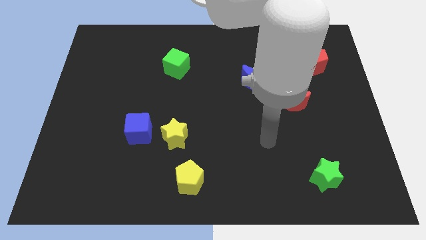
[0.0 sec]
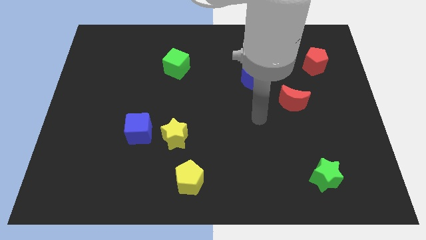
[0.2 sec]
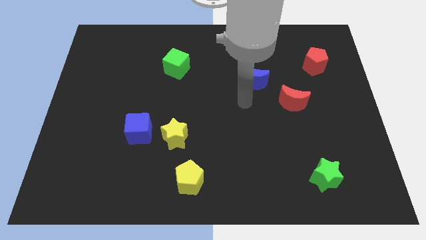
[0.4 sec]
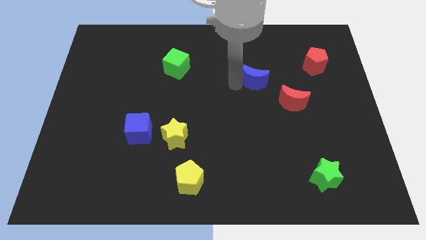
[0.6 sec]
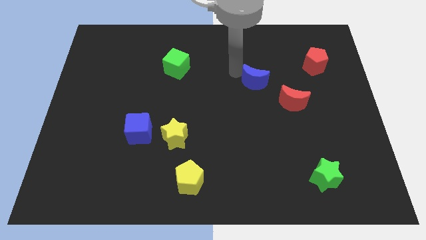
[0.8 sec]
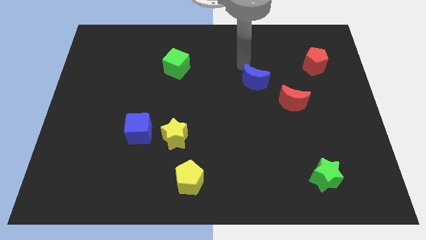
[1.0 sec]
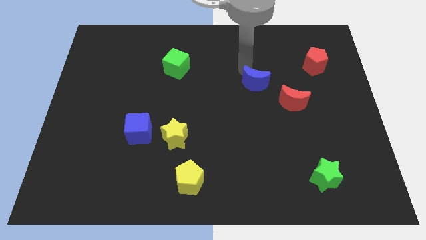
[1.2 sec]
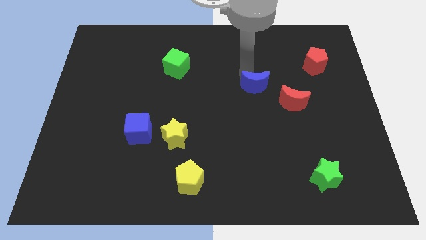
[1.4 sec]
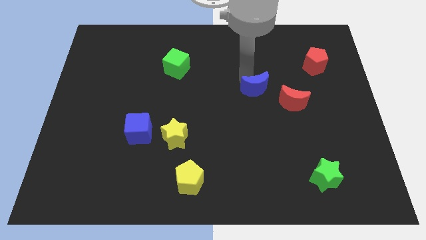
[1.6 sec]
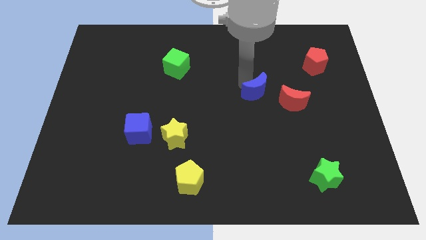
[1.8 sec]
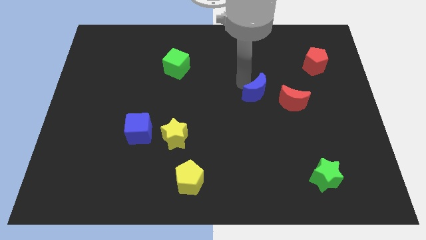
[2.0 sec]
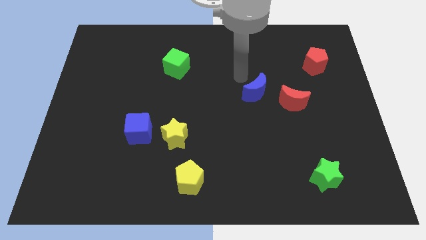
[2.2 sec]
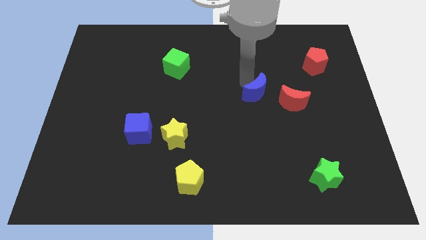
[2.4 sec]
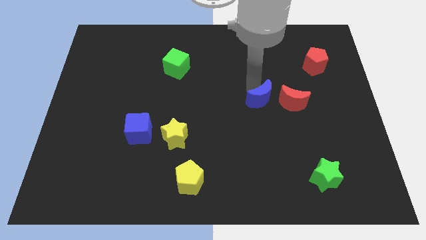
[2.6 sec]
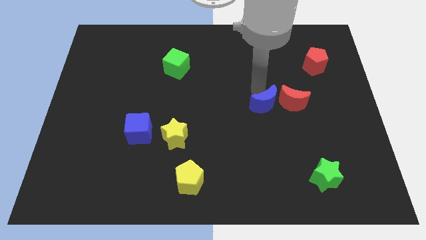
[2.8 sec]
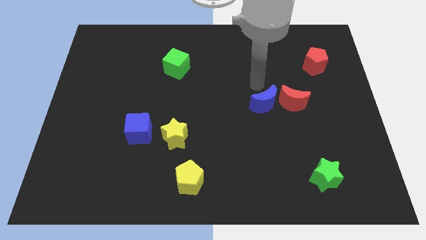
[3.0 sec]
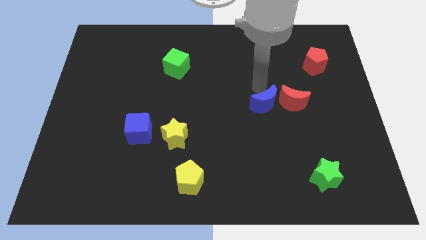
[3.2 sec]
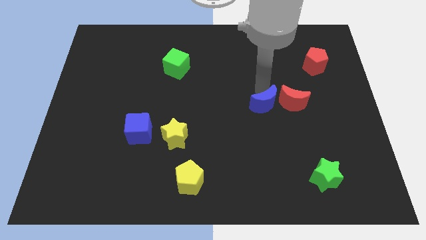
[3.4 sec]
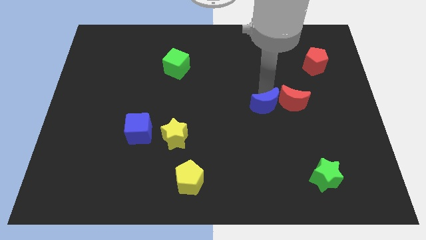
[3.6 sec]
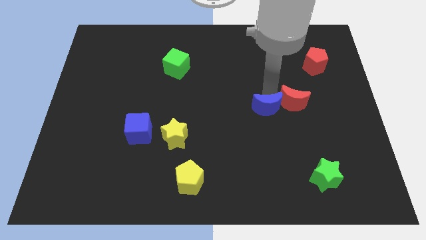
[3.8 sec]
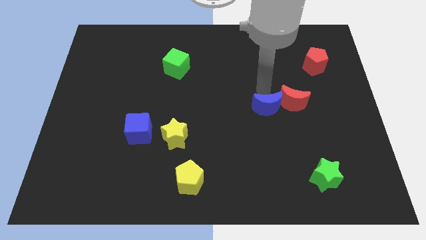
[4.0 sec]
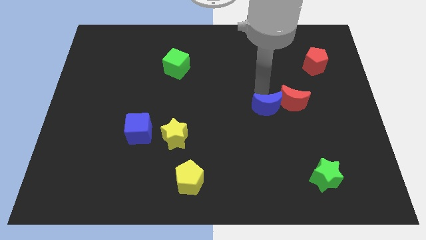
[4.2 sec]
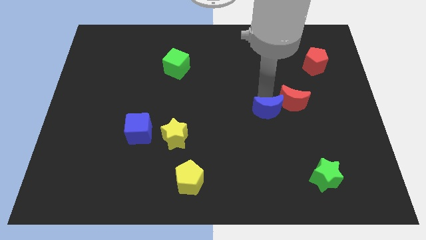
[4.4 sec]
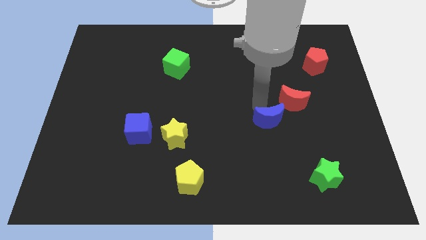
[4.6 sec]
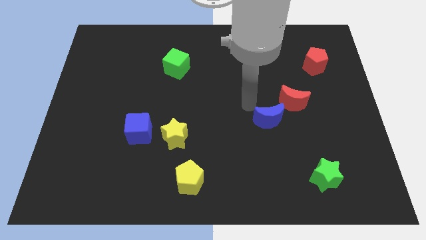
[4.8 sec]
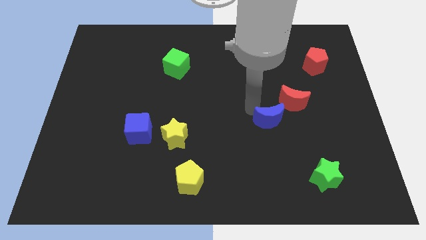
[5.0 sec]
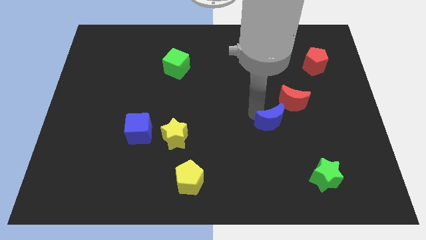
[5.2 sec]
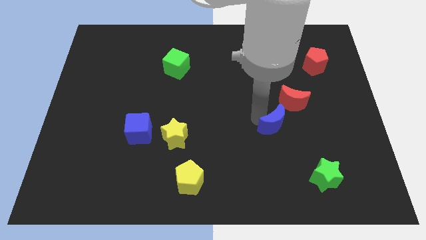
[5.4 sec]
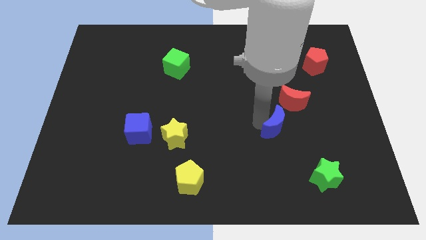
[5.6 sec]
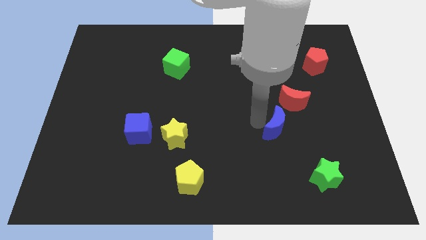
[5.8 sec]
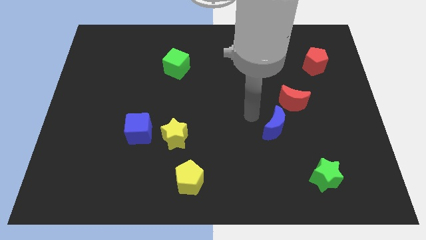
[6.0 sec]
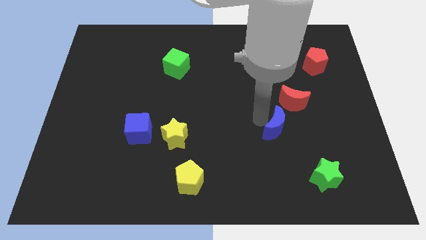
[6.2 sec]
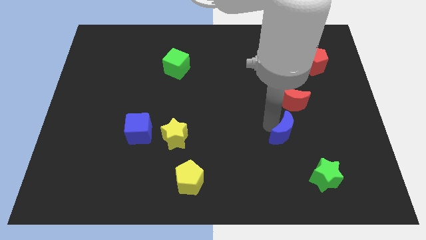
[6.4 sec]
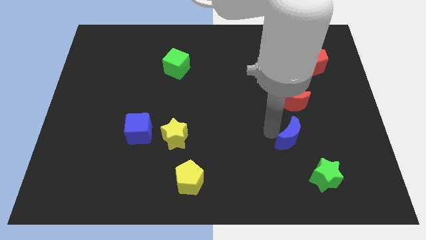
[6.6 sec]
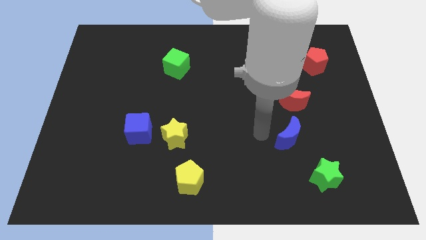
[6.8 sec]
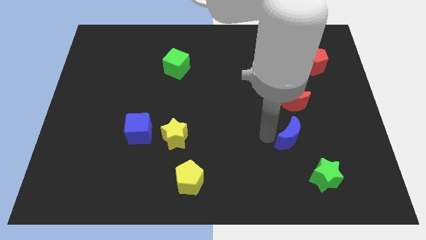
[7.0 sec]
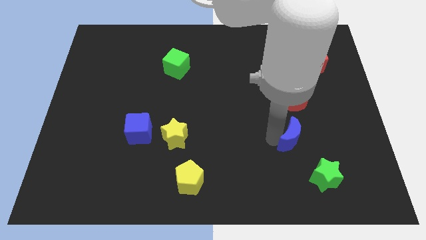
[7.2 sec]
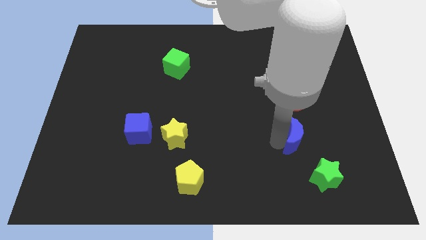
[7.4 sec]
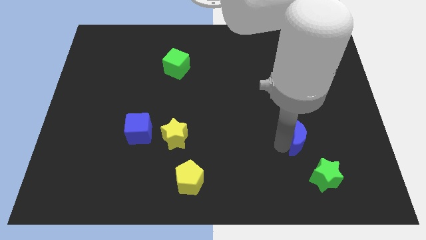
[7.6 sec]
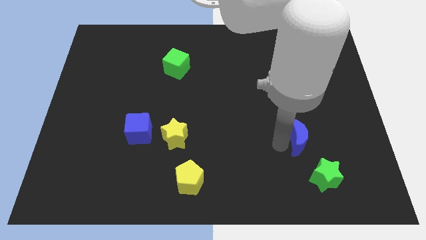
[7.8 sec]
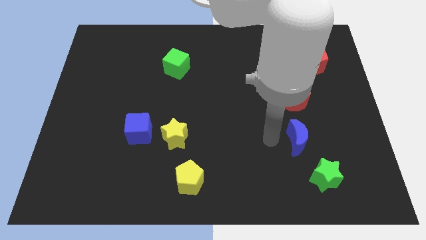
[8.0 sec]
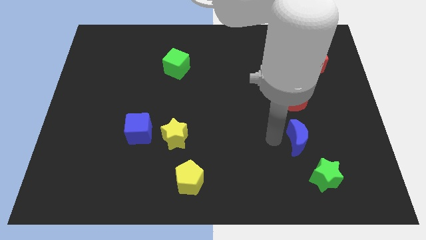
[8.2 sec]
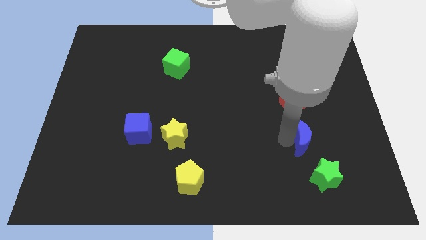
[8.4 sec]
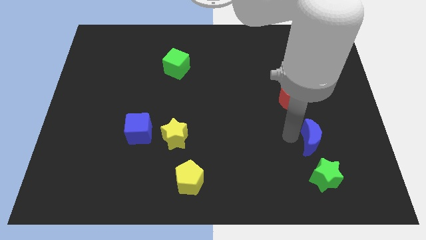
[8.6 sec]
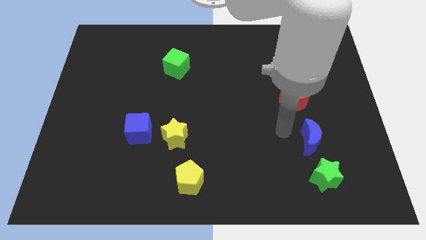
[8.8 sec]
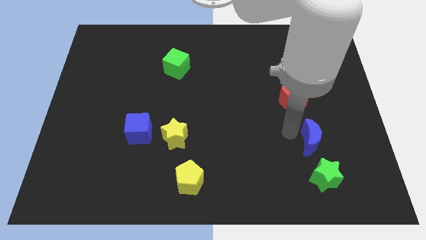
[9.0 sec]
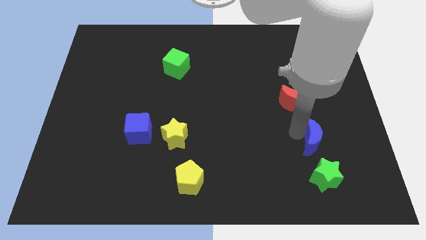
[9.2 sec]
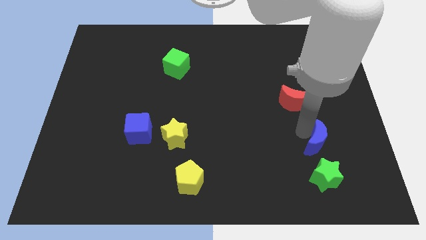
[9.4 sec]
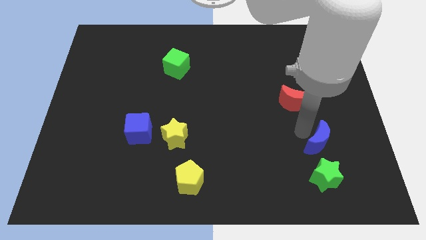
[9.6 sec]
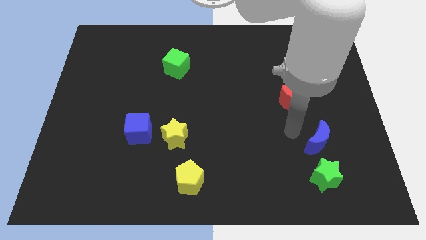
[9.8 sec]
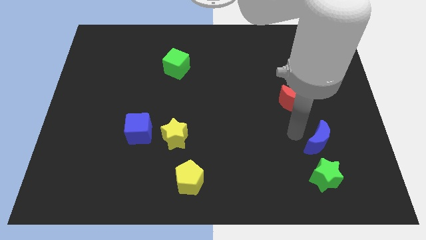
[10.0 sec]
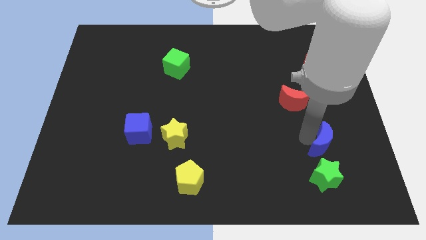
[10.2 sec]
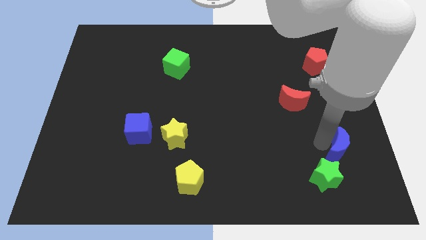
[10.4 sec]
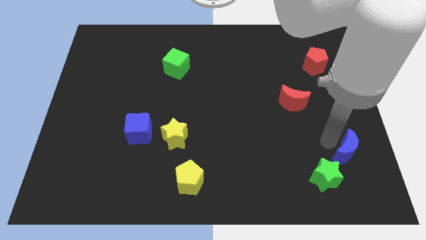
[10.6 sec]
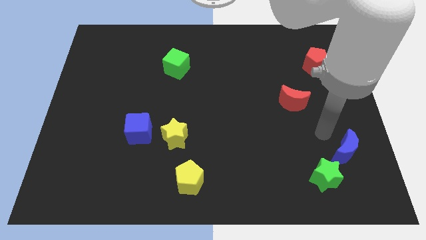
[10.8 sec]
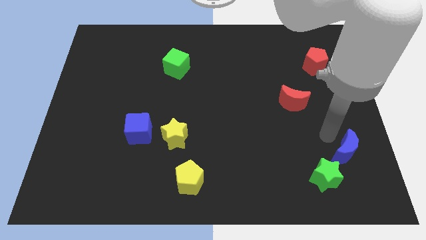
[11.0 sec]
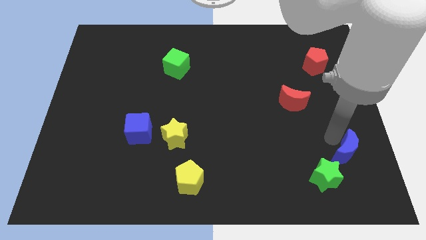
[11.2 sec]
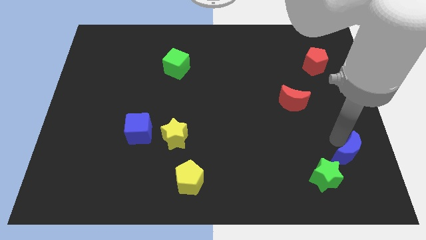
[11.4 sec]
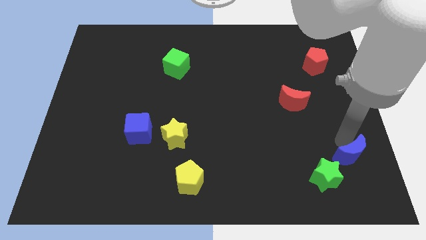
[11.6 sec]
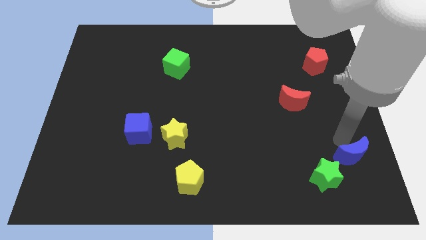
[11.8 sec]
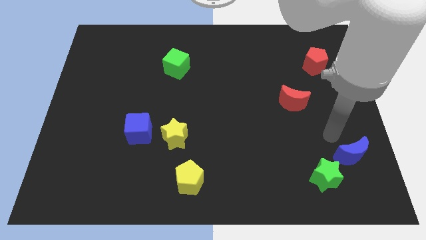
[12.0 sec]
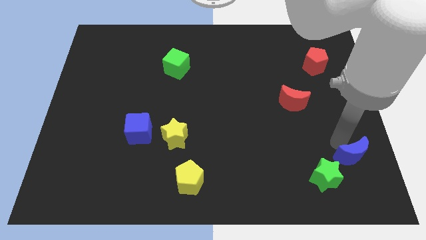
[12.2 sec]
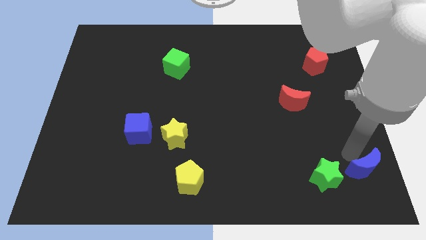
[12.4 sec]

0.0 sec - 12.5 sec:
move the blue moon to the bottom right
